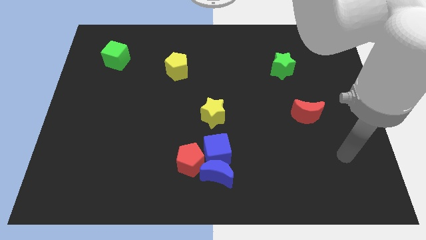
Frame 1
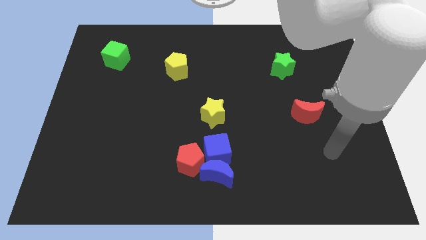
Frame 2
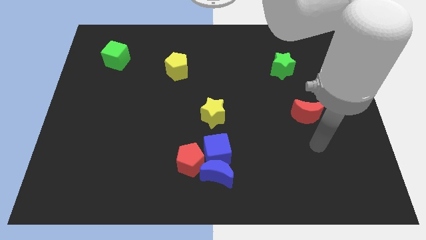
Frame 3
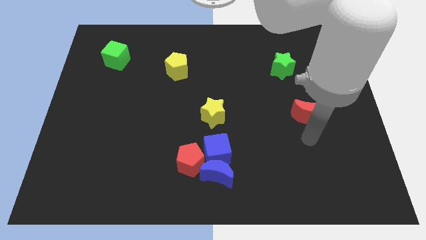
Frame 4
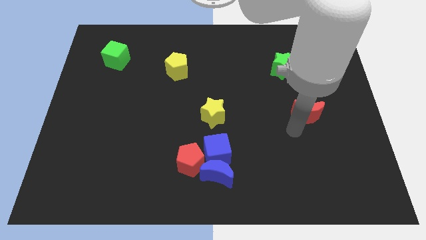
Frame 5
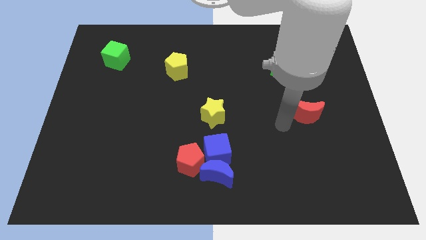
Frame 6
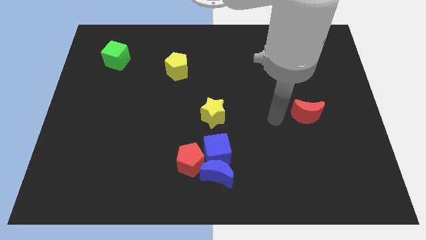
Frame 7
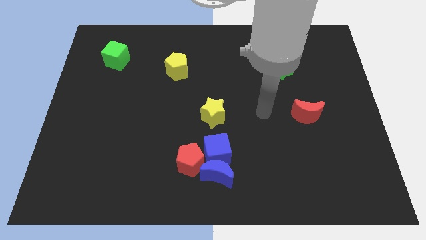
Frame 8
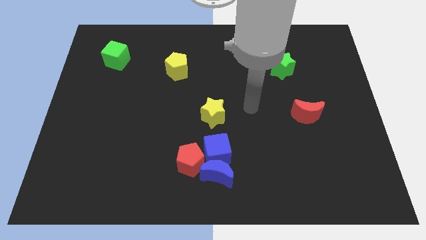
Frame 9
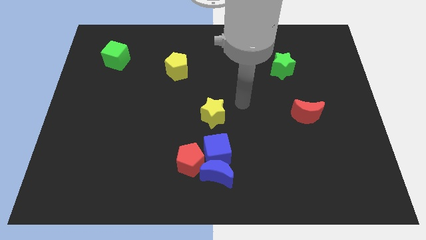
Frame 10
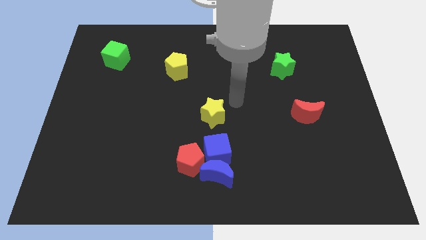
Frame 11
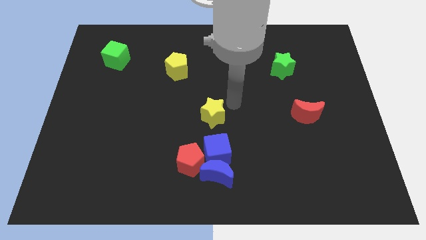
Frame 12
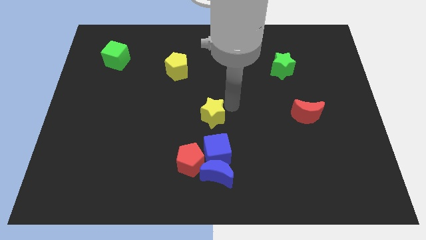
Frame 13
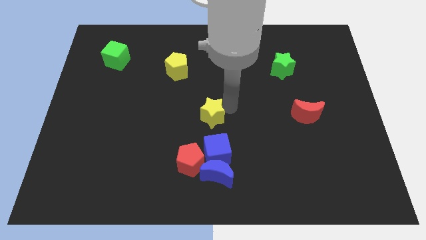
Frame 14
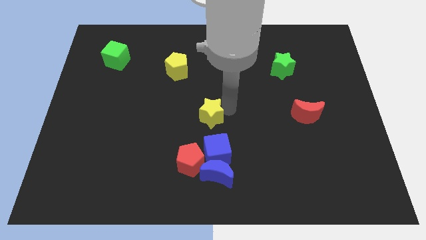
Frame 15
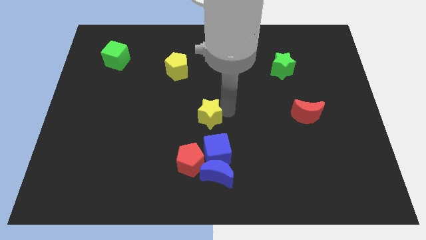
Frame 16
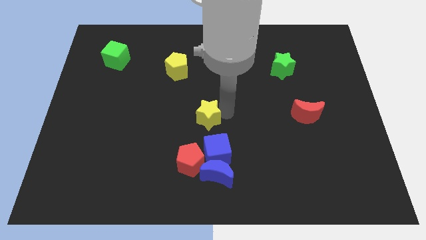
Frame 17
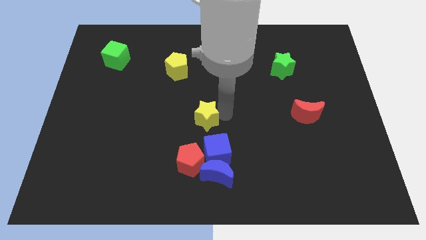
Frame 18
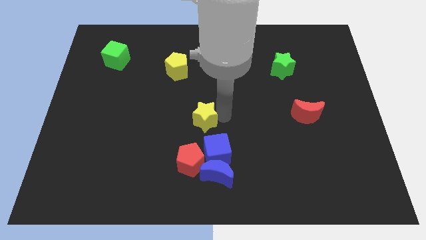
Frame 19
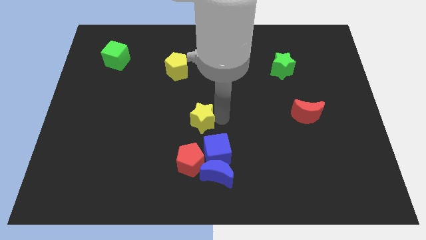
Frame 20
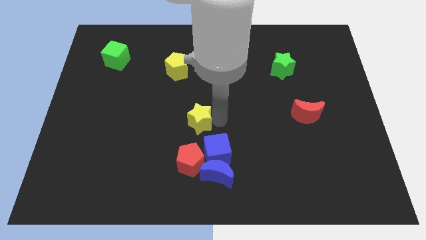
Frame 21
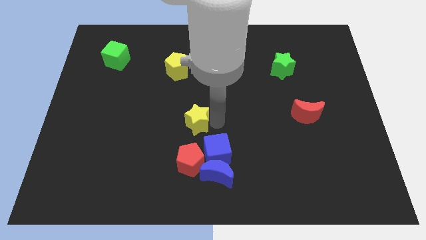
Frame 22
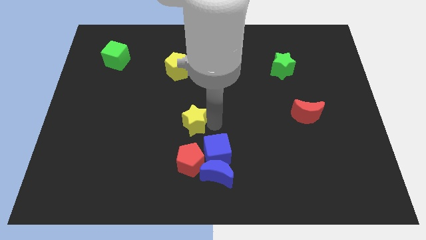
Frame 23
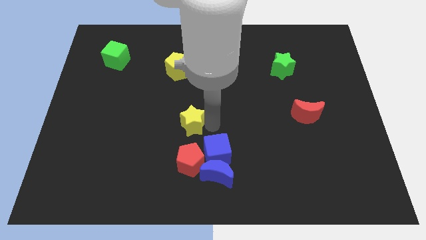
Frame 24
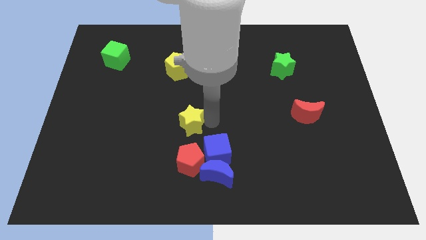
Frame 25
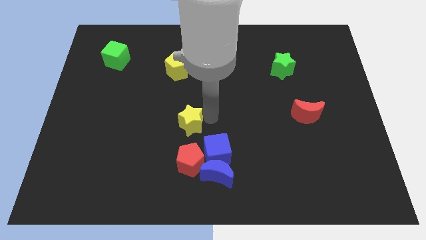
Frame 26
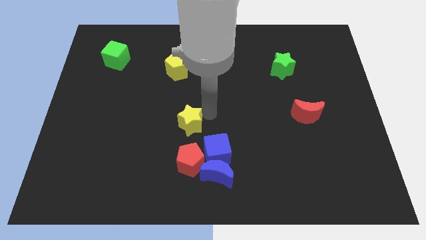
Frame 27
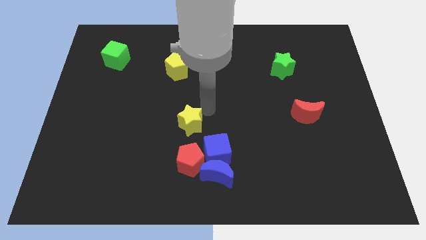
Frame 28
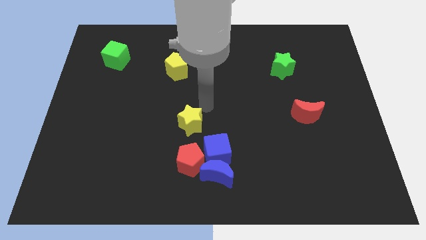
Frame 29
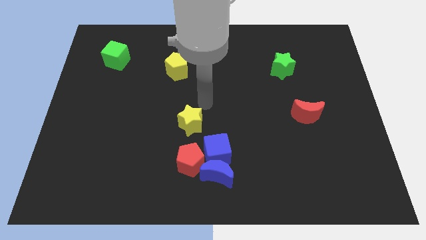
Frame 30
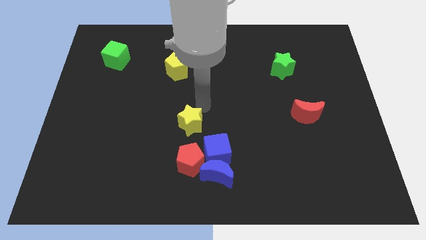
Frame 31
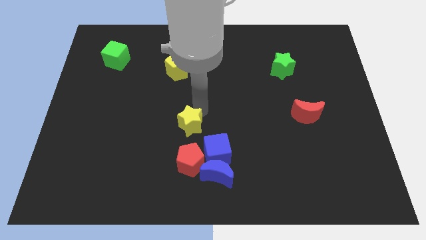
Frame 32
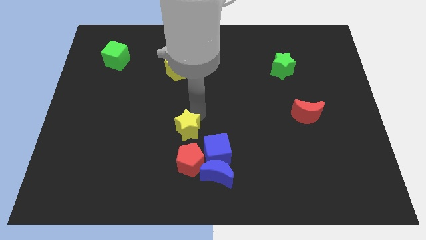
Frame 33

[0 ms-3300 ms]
push the yellow star down and left a bit

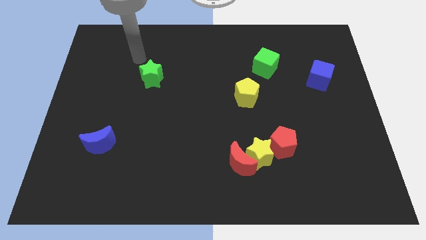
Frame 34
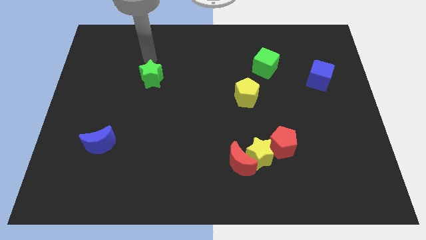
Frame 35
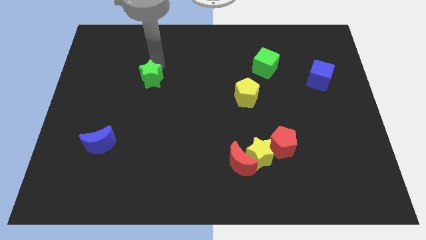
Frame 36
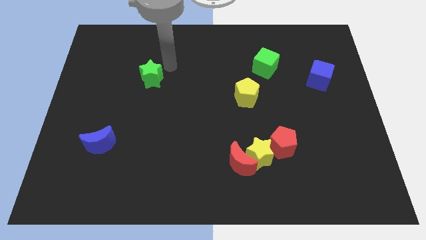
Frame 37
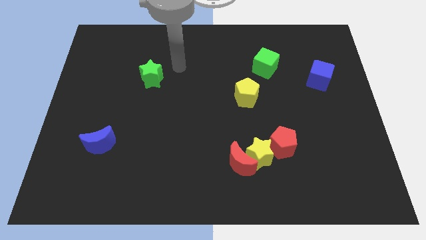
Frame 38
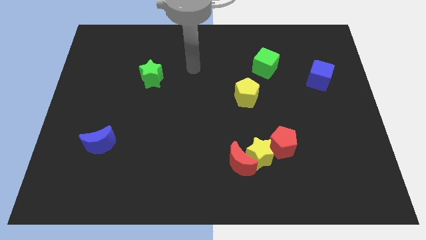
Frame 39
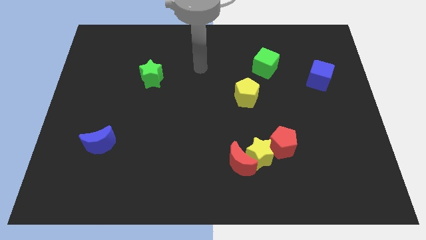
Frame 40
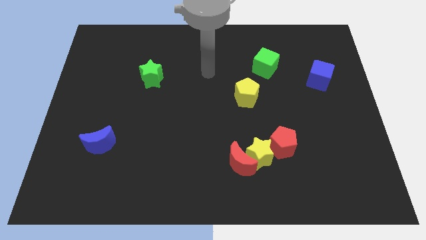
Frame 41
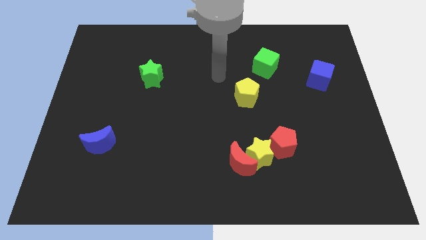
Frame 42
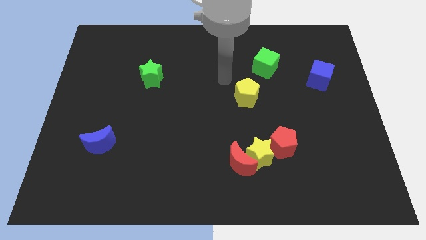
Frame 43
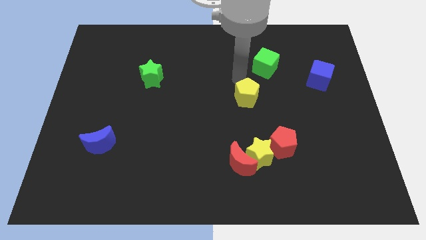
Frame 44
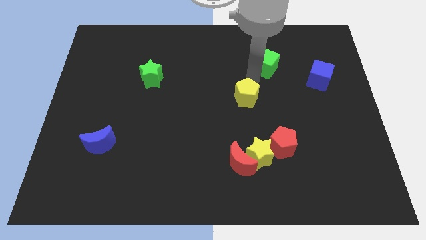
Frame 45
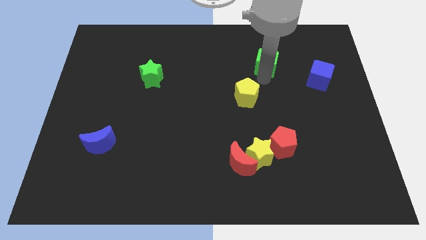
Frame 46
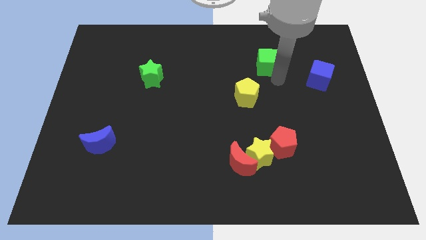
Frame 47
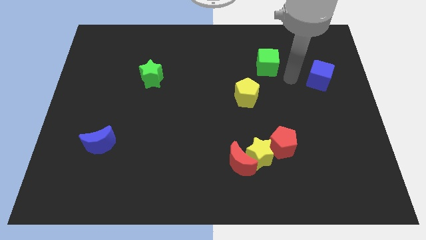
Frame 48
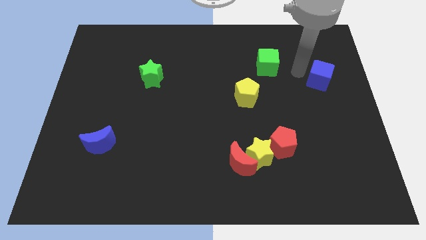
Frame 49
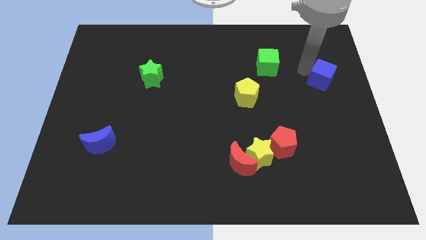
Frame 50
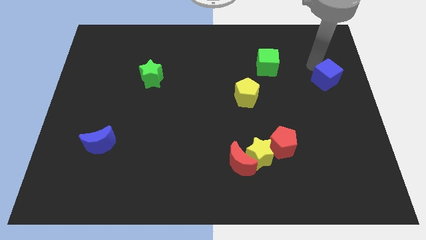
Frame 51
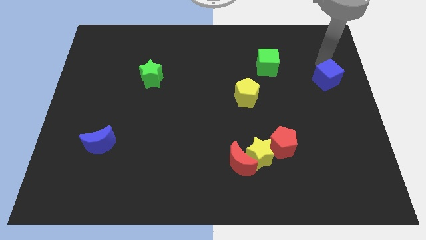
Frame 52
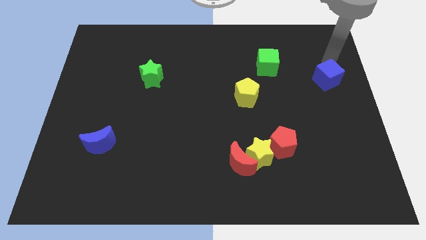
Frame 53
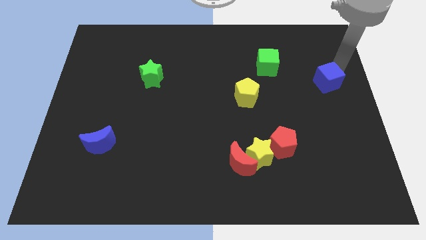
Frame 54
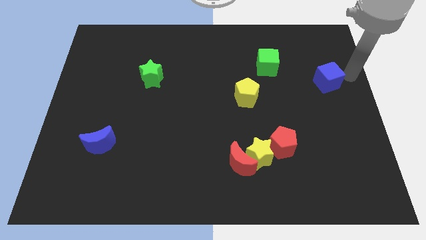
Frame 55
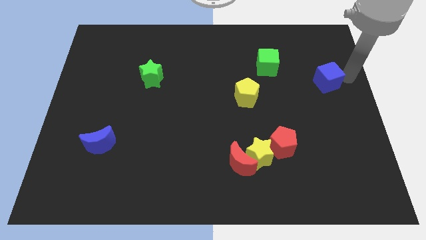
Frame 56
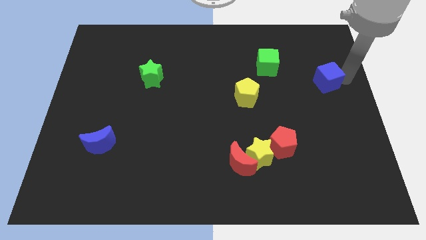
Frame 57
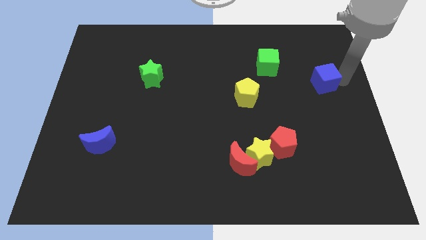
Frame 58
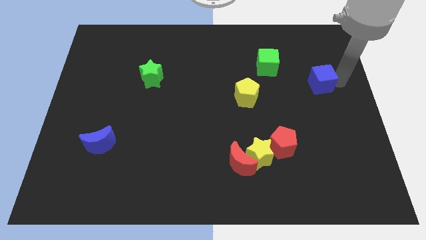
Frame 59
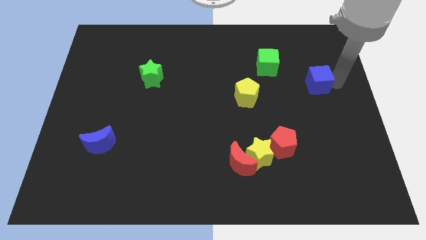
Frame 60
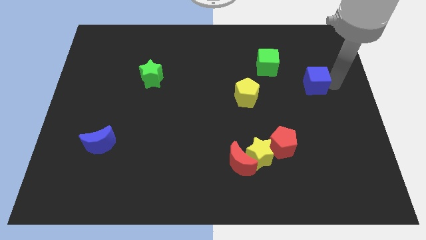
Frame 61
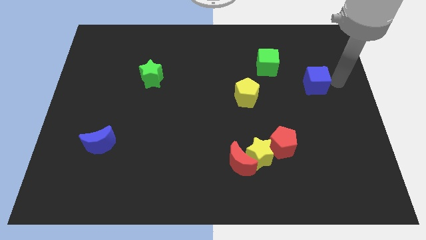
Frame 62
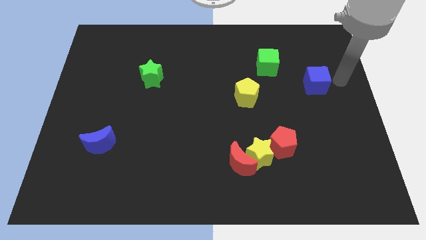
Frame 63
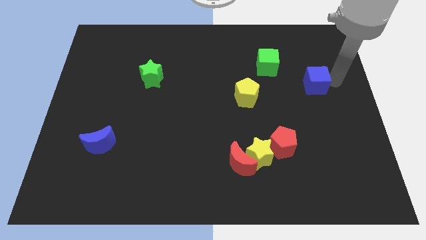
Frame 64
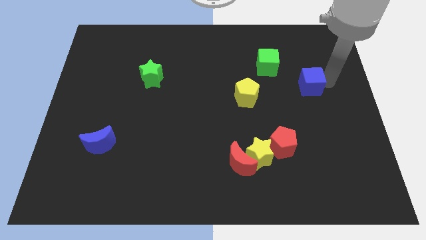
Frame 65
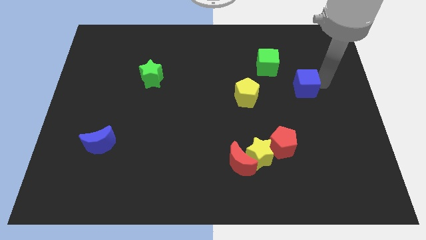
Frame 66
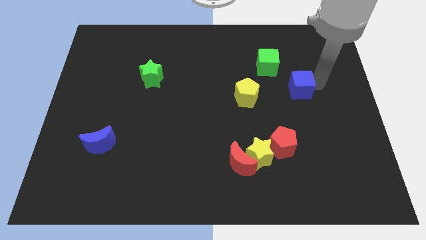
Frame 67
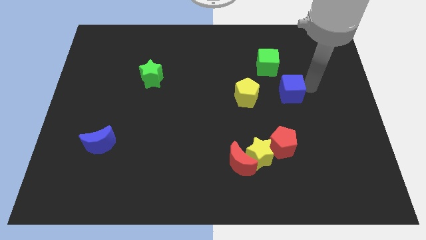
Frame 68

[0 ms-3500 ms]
slightly slide the blue cube left

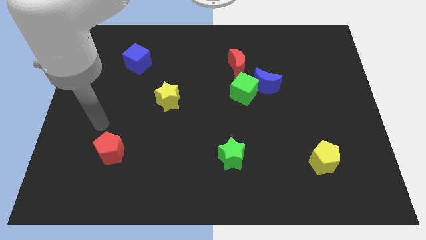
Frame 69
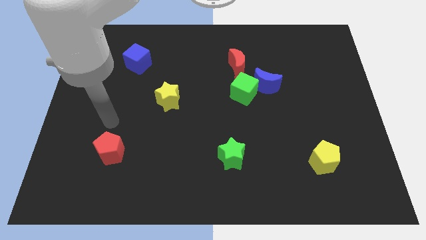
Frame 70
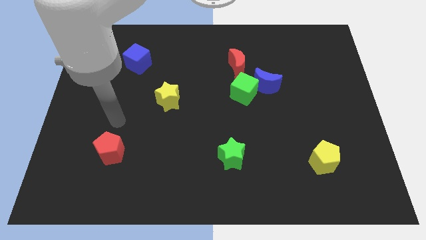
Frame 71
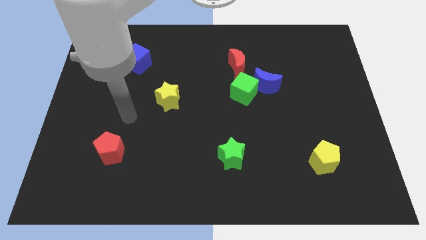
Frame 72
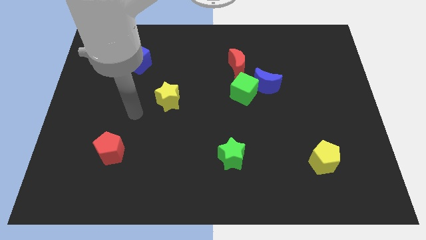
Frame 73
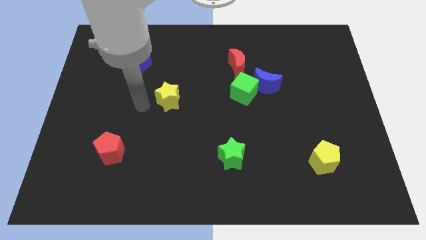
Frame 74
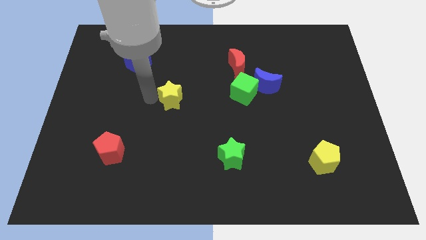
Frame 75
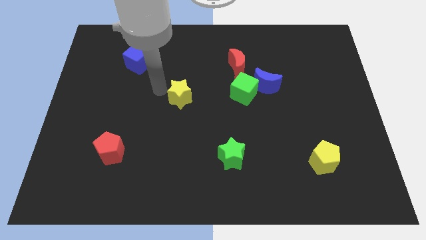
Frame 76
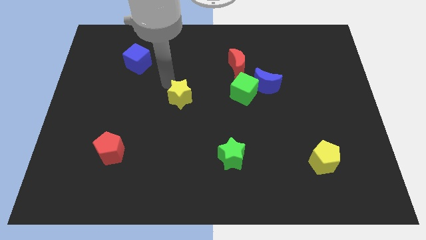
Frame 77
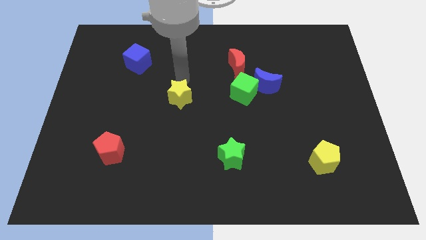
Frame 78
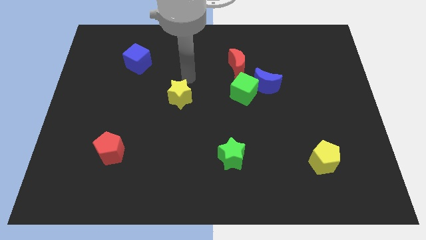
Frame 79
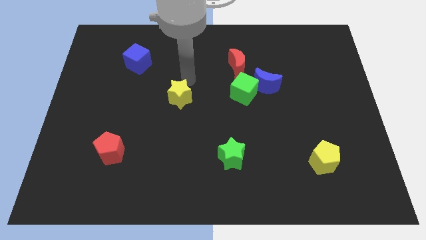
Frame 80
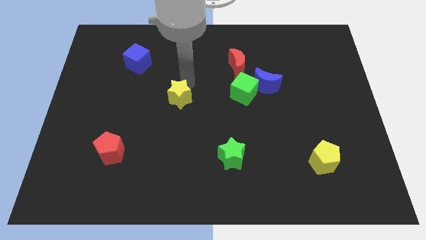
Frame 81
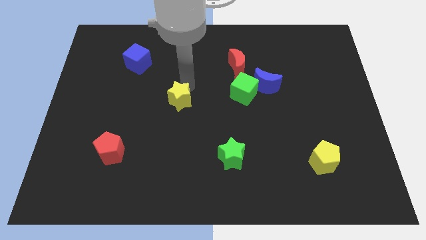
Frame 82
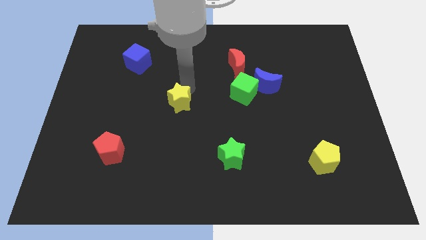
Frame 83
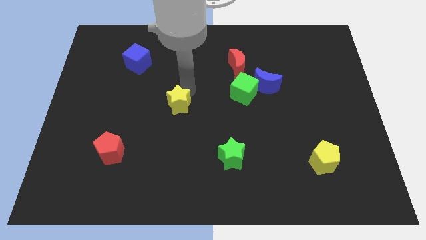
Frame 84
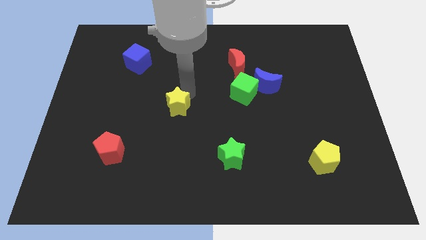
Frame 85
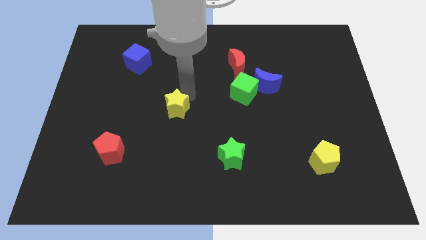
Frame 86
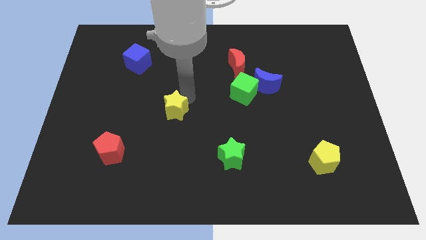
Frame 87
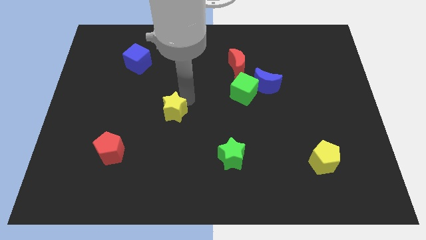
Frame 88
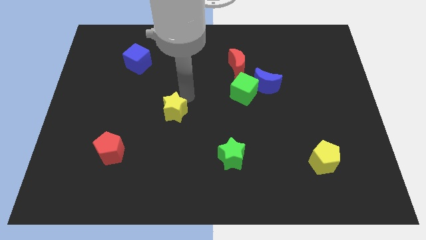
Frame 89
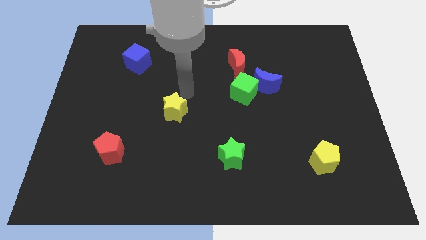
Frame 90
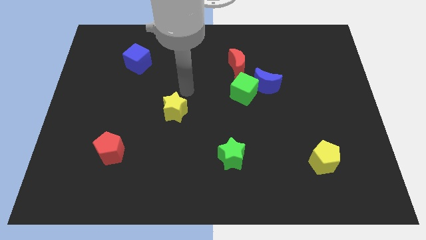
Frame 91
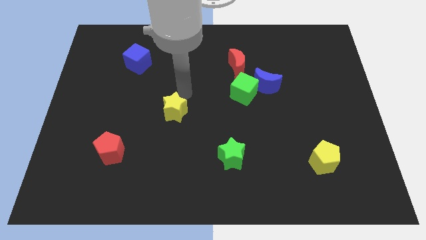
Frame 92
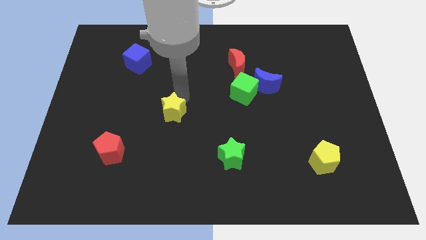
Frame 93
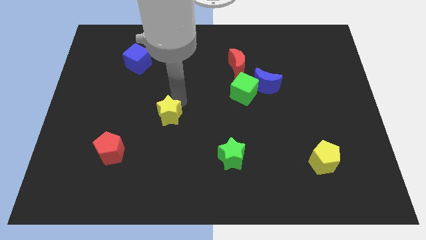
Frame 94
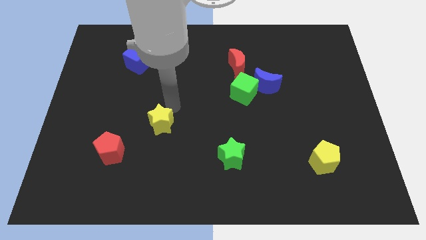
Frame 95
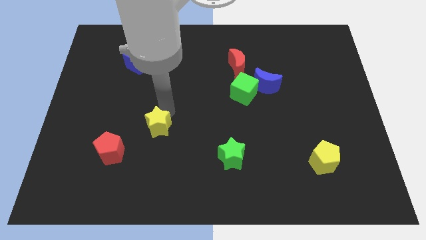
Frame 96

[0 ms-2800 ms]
slide the yellow star slightly down
